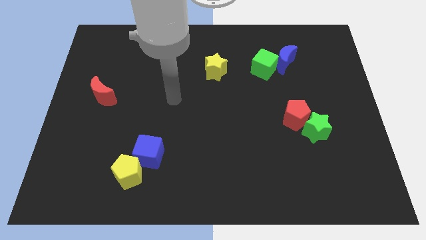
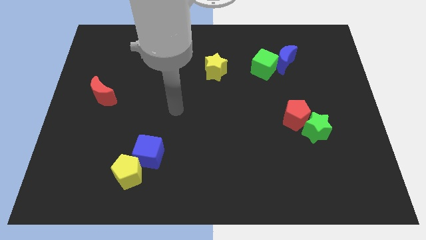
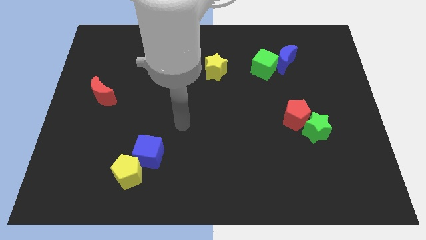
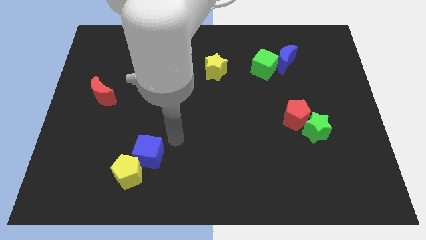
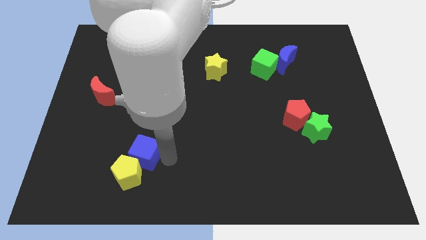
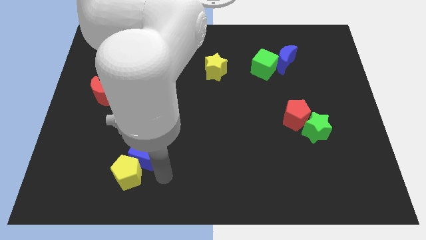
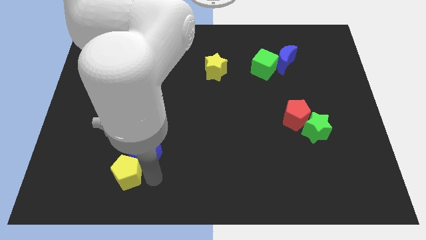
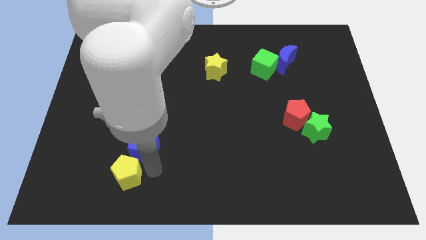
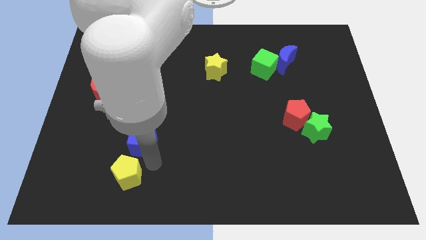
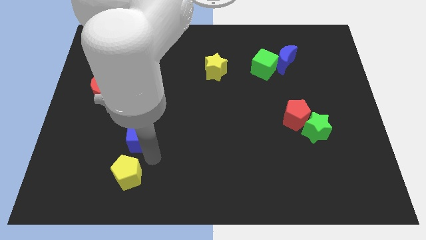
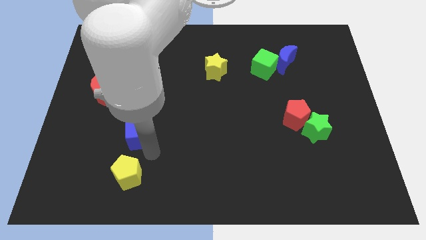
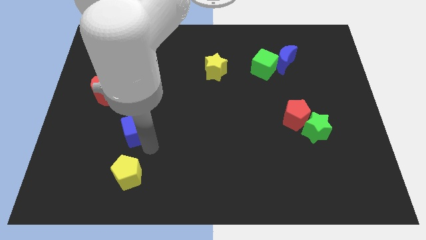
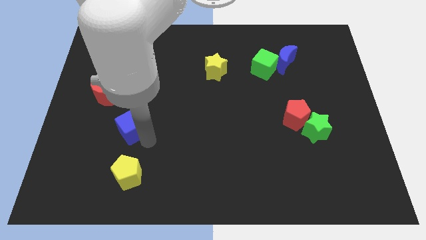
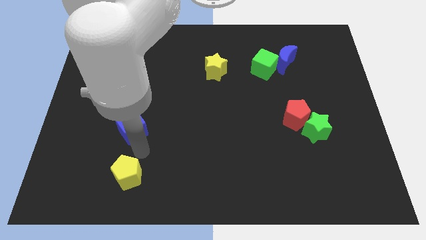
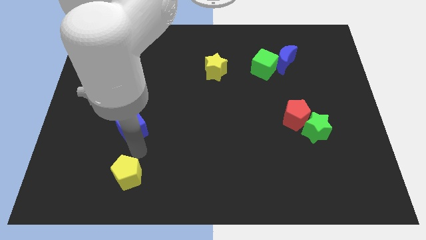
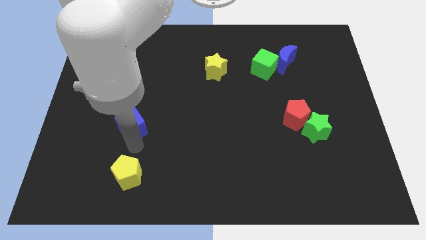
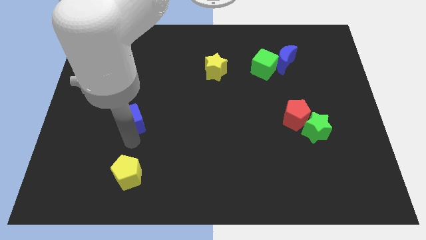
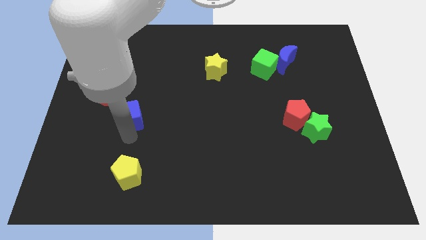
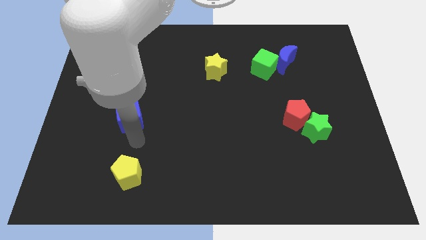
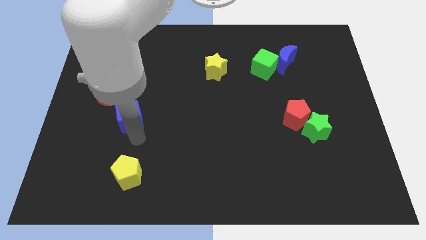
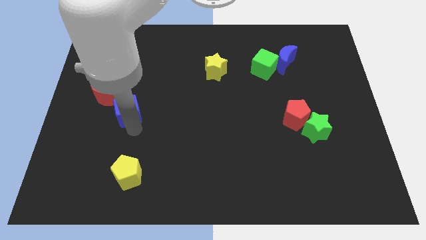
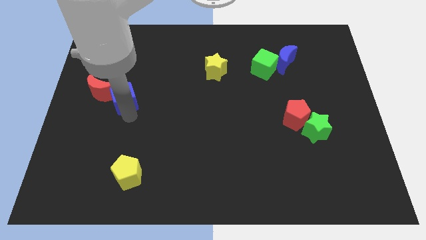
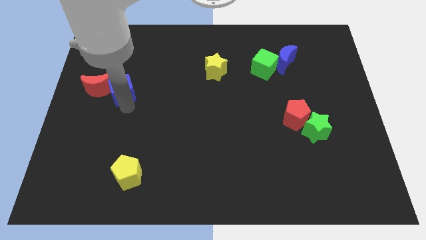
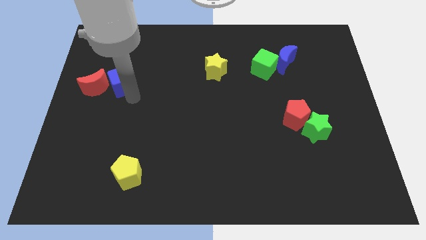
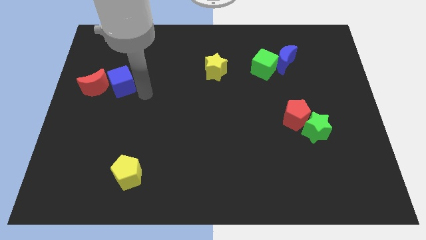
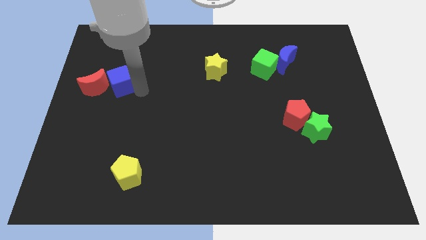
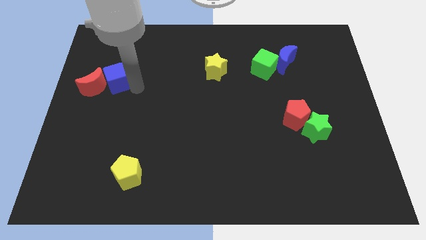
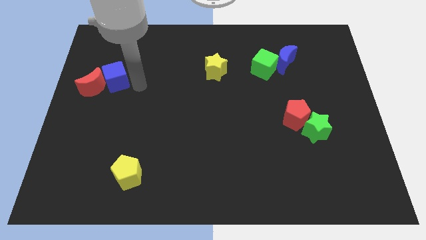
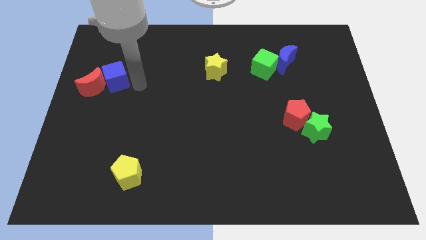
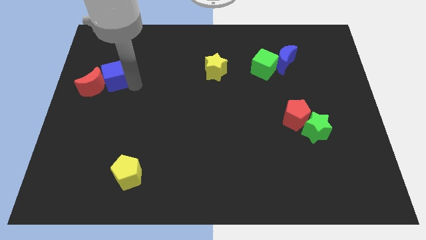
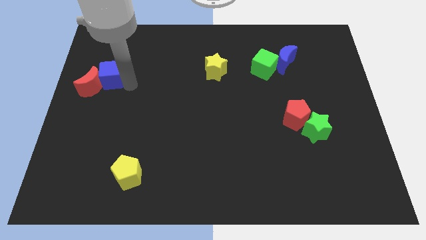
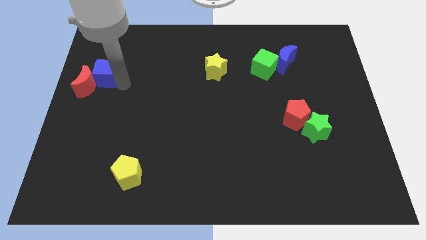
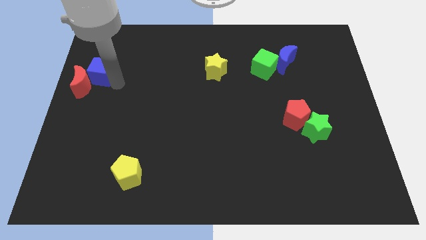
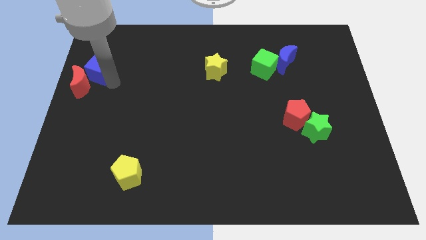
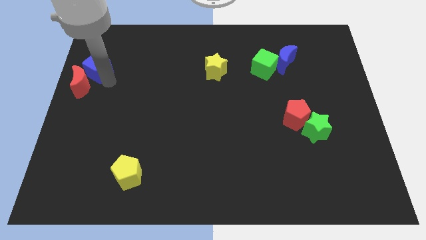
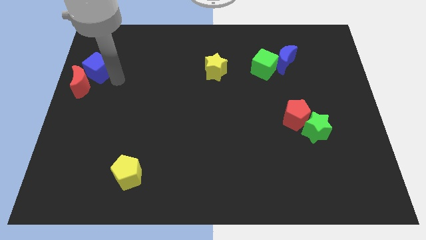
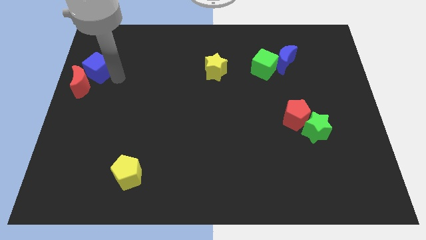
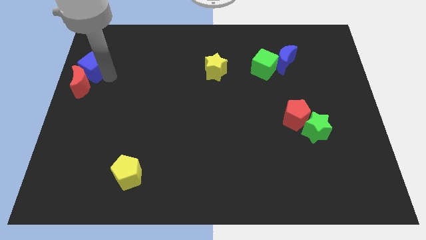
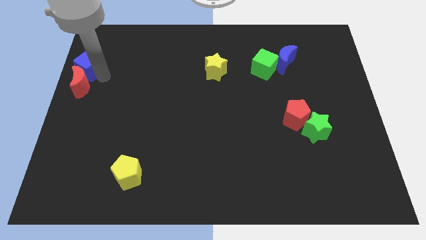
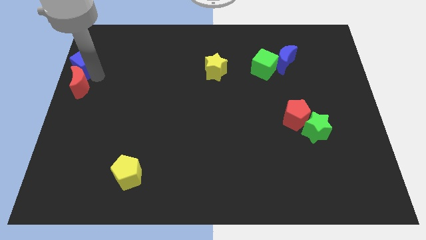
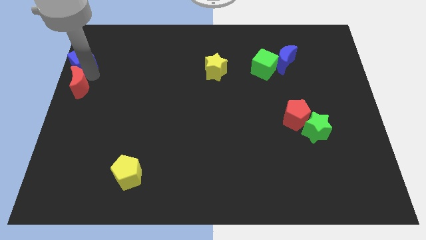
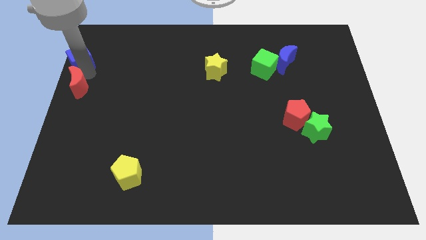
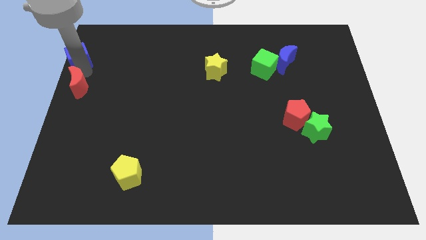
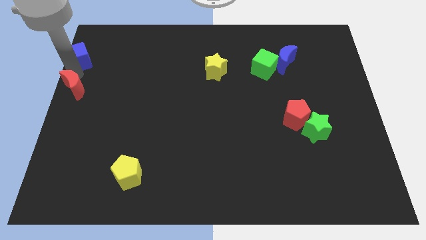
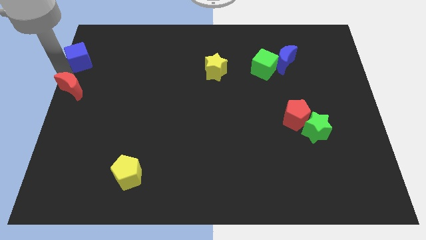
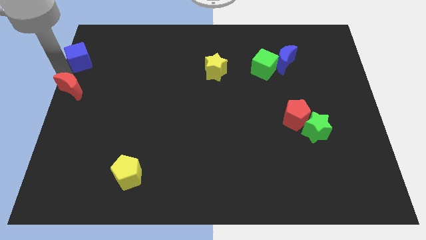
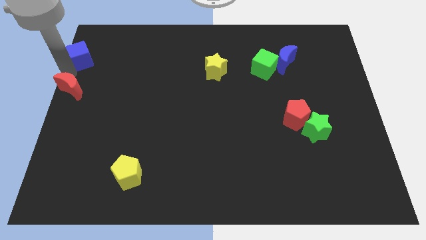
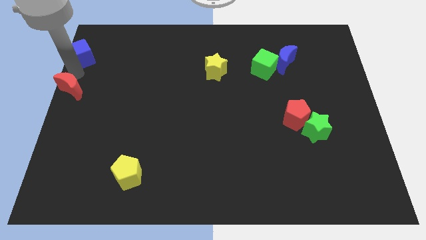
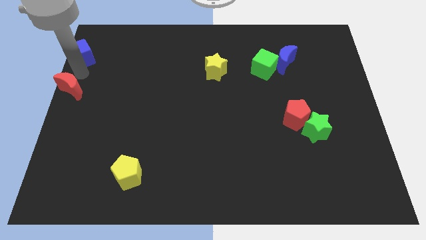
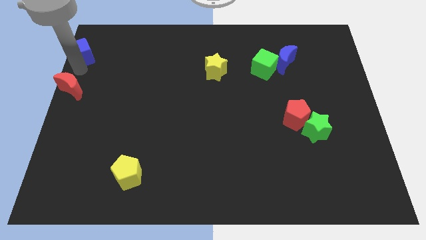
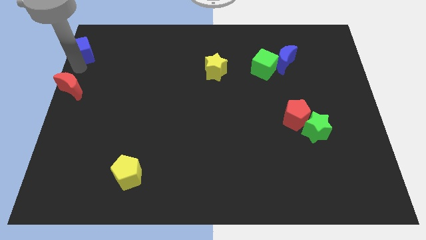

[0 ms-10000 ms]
move the blue cube to the top left corner

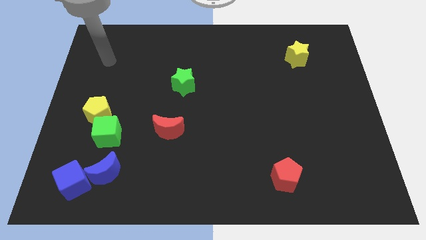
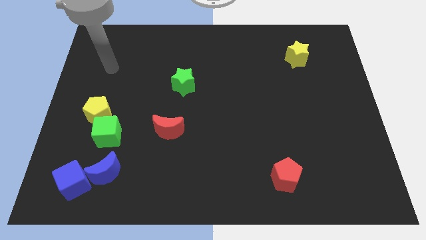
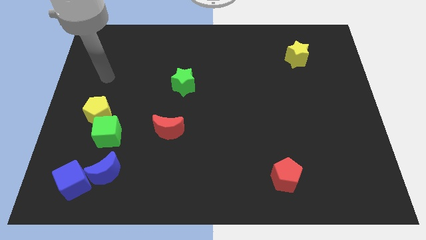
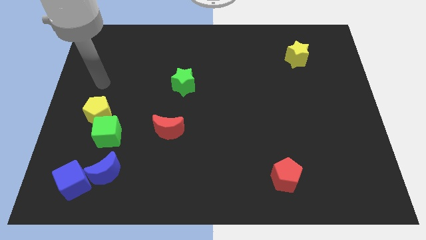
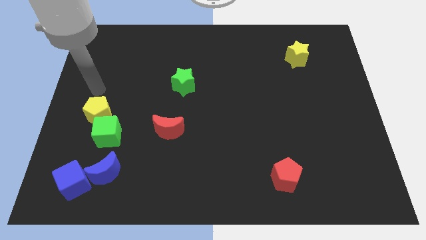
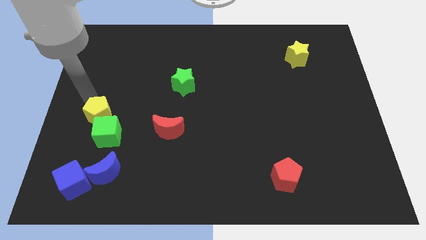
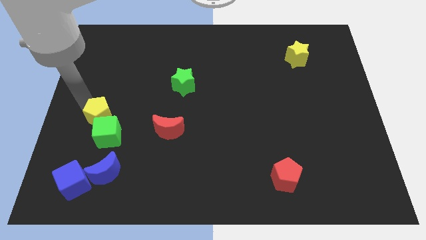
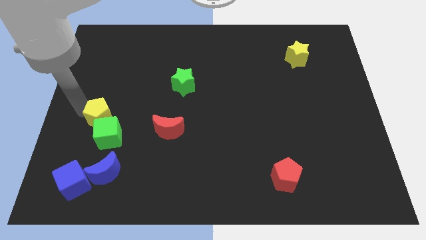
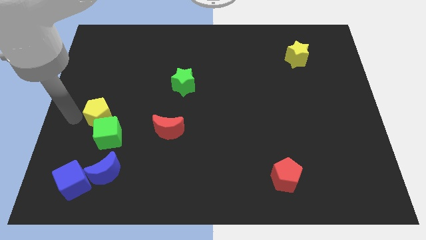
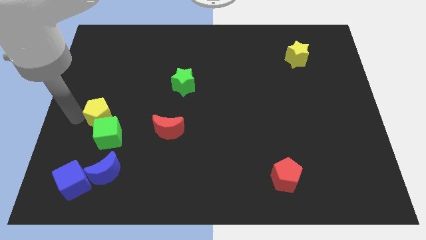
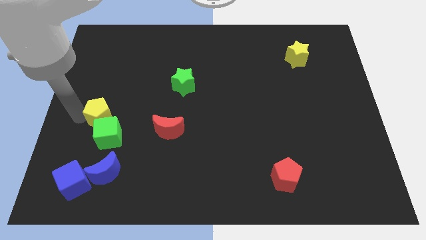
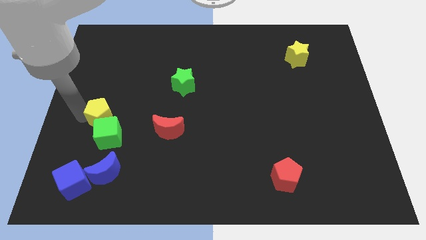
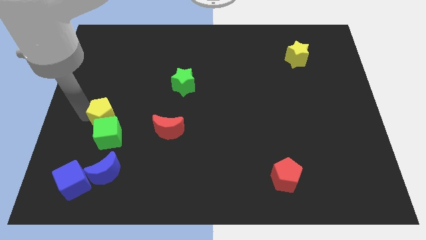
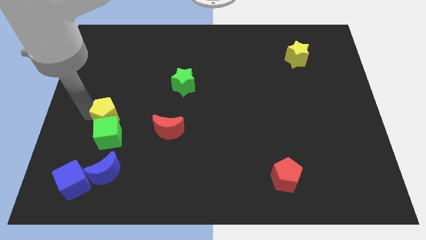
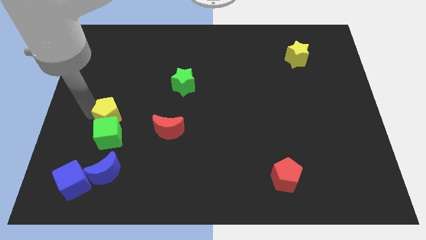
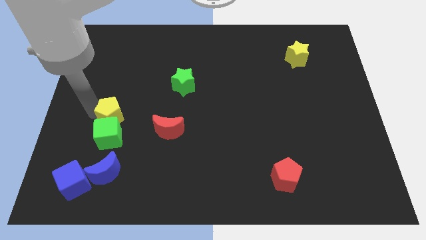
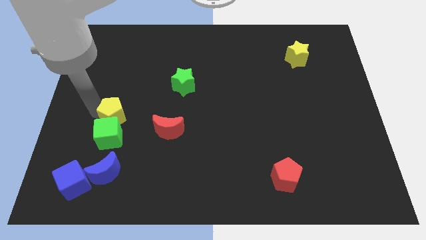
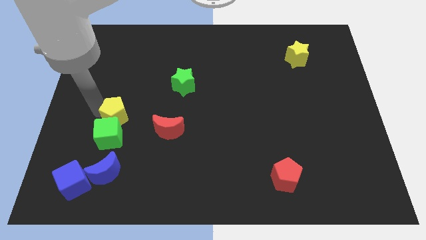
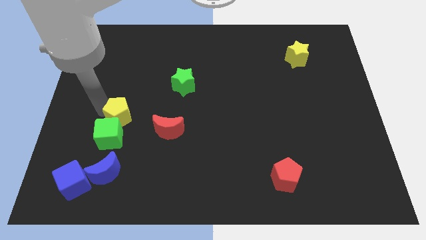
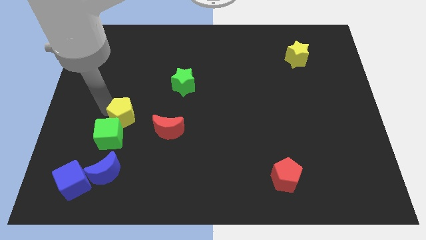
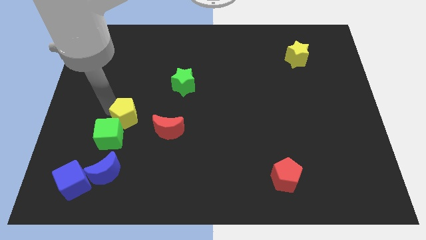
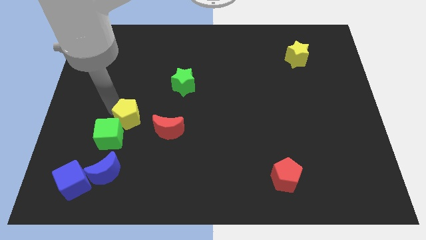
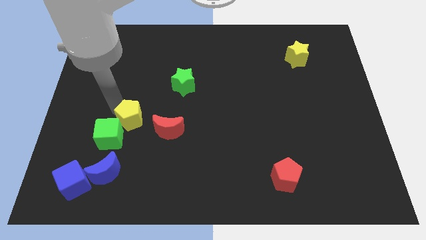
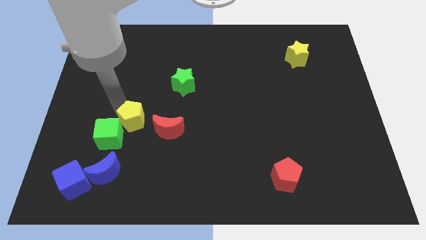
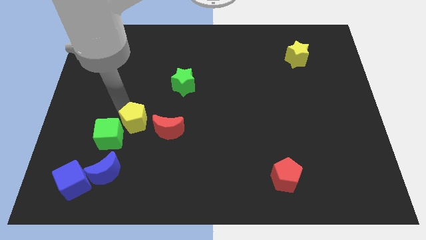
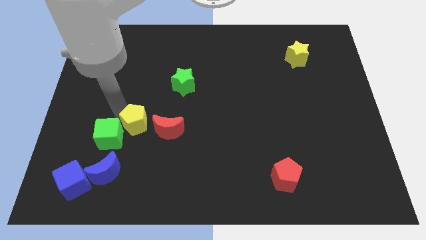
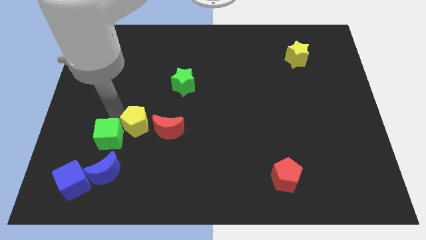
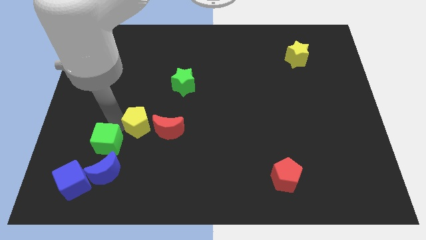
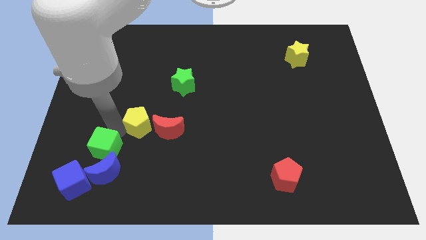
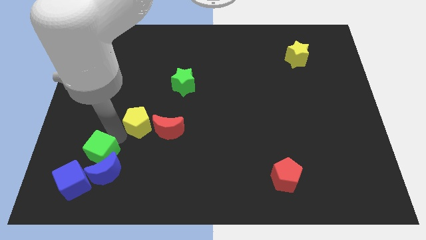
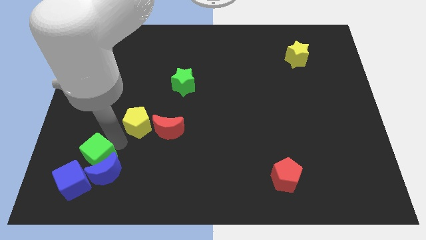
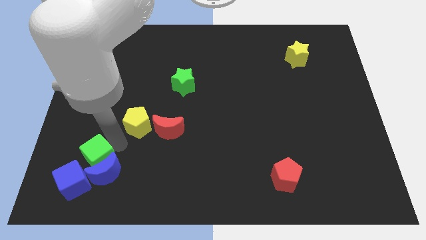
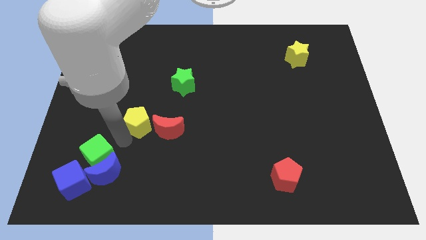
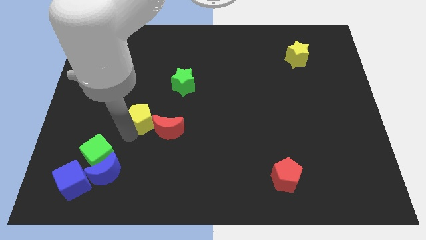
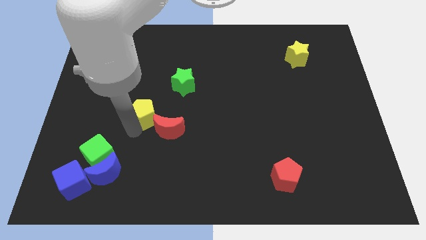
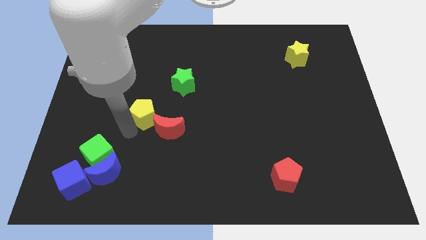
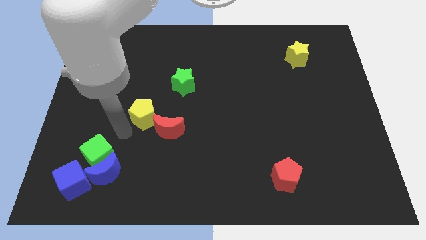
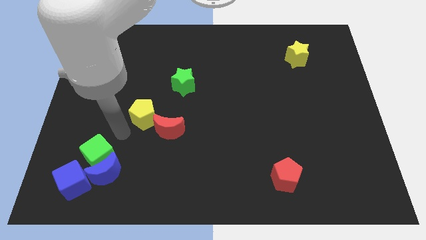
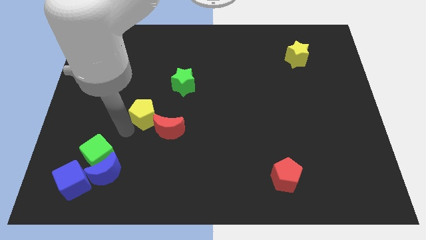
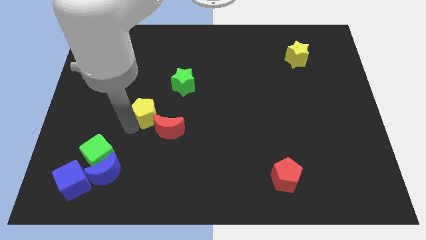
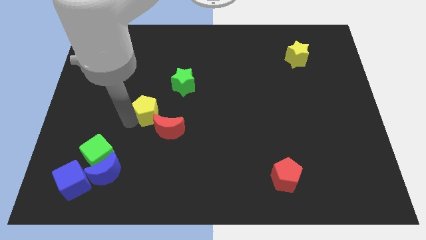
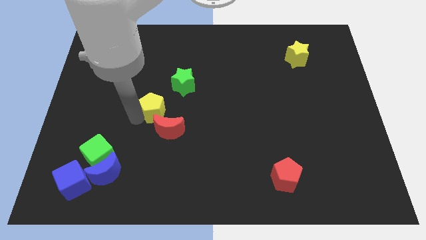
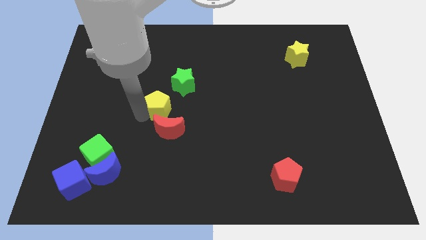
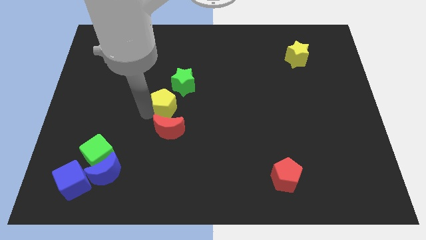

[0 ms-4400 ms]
slide the yellow pentagon to the center
